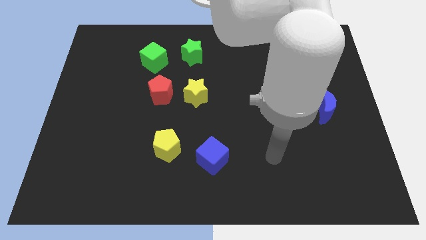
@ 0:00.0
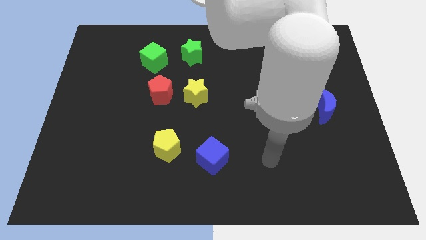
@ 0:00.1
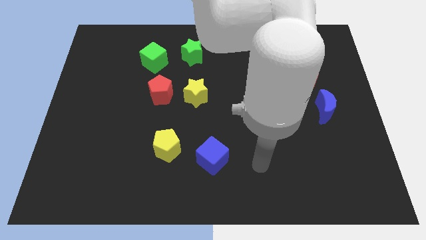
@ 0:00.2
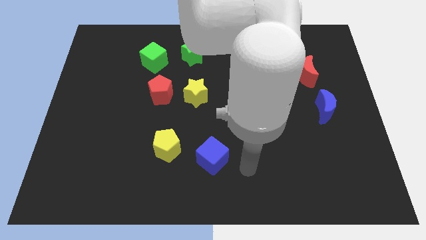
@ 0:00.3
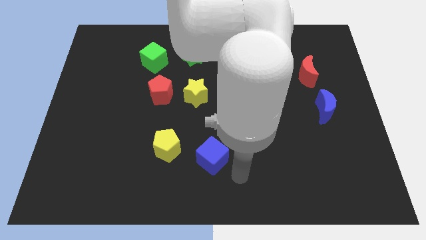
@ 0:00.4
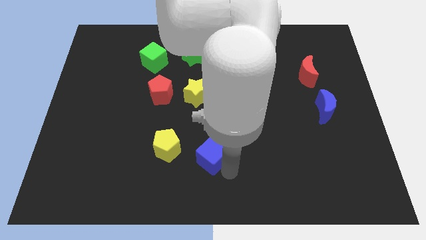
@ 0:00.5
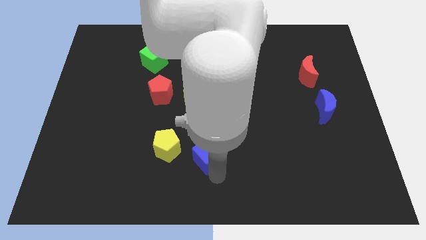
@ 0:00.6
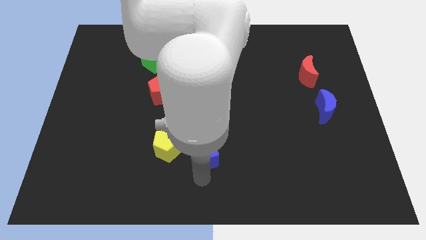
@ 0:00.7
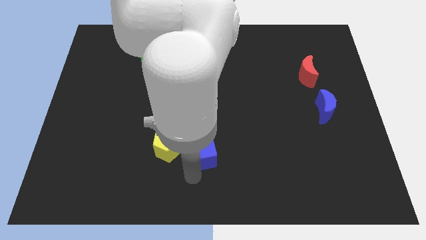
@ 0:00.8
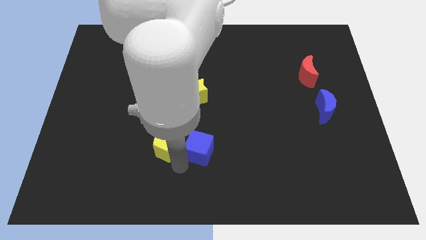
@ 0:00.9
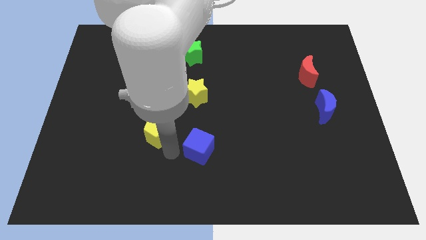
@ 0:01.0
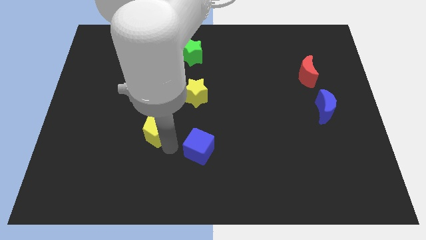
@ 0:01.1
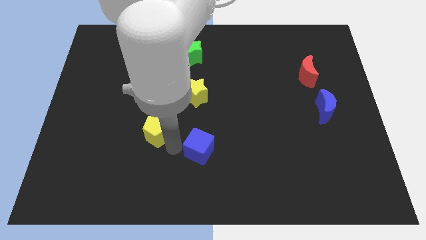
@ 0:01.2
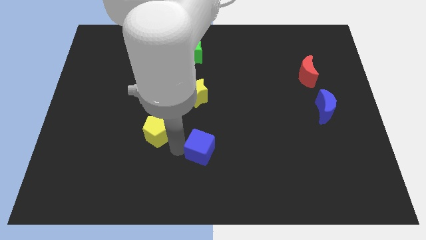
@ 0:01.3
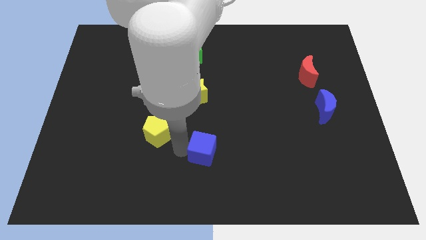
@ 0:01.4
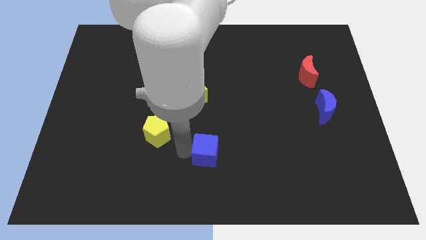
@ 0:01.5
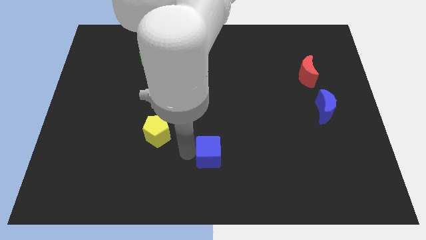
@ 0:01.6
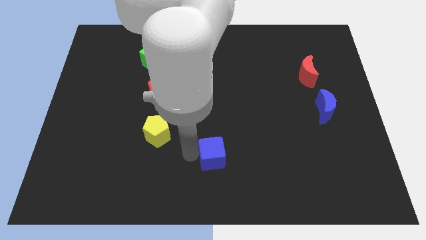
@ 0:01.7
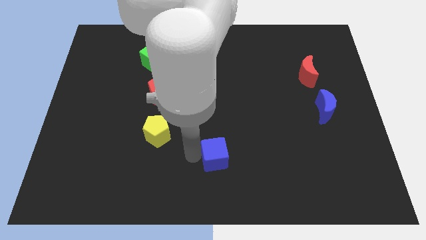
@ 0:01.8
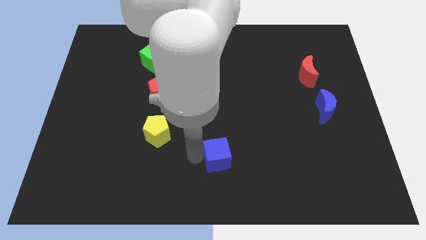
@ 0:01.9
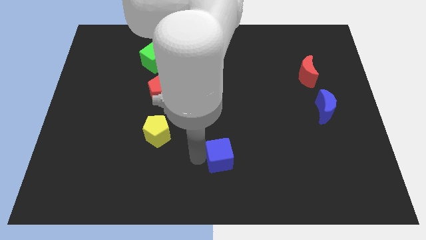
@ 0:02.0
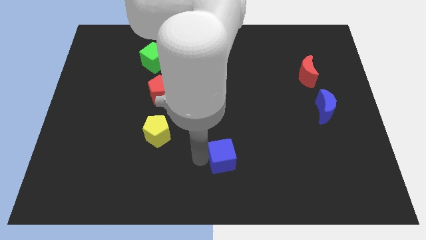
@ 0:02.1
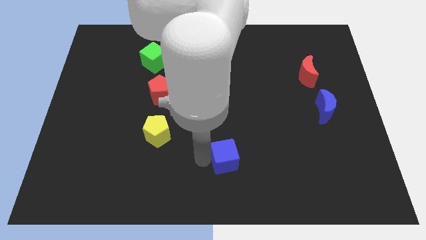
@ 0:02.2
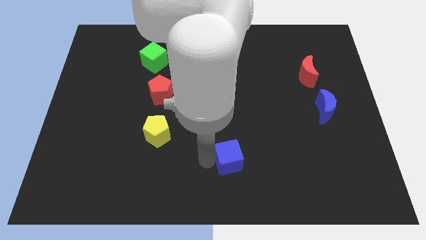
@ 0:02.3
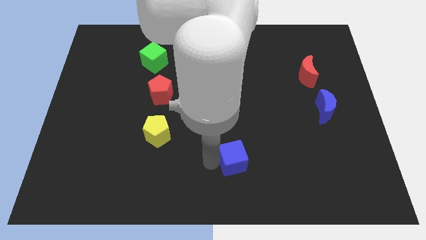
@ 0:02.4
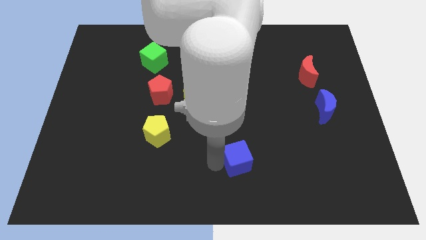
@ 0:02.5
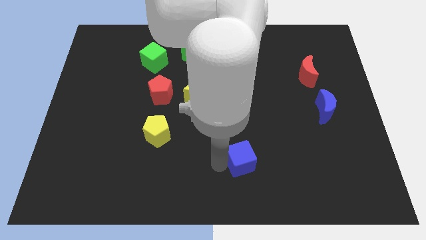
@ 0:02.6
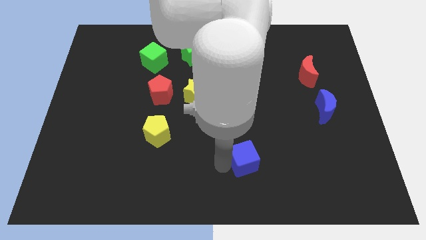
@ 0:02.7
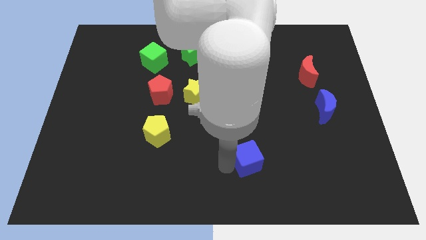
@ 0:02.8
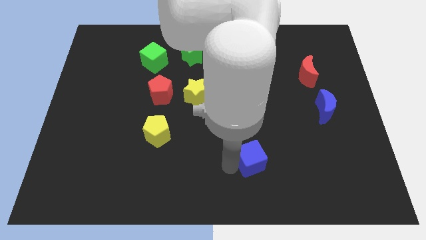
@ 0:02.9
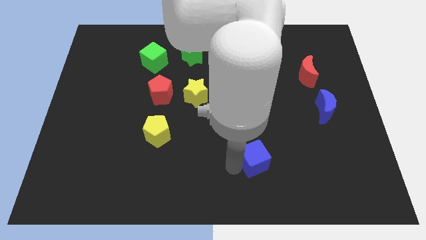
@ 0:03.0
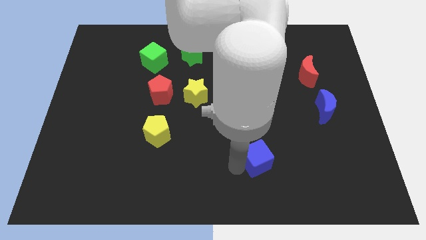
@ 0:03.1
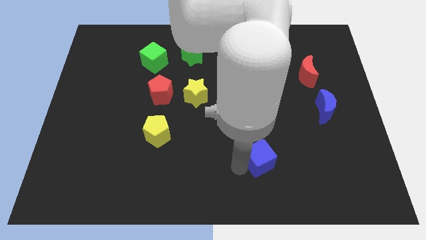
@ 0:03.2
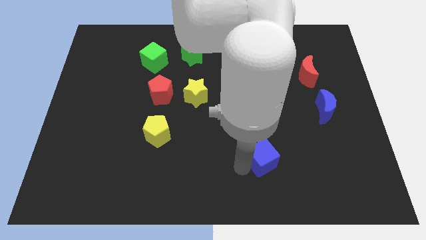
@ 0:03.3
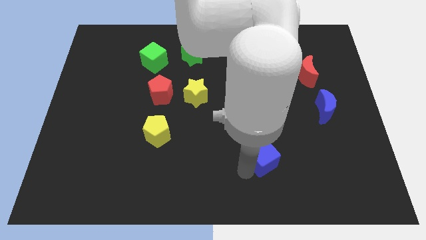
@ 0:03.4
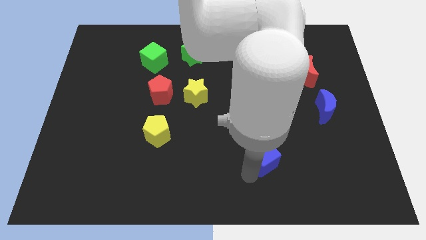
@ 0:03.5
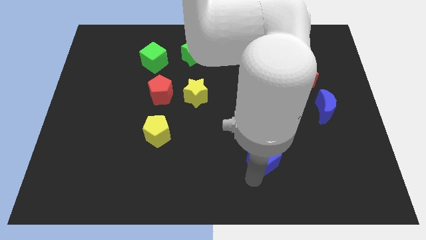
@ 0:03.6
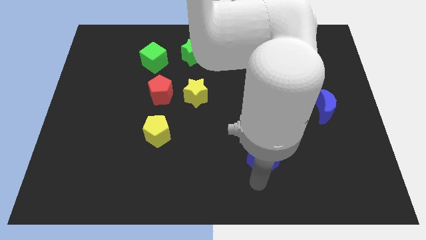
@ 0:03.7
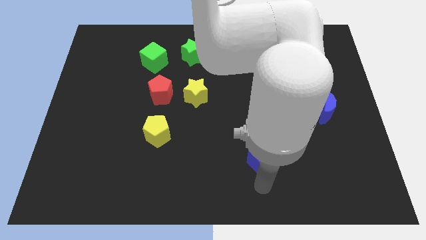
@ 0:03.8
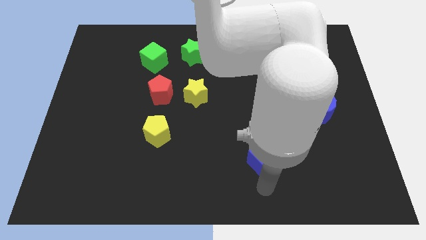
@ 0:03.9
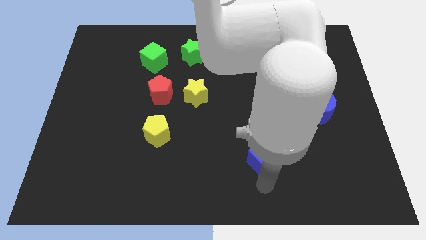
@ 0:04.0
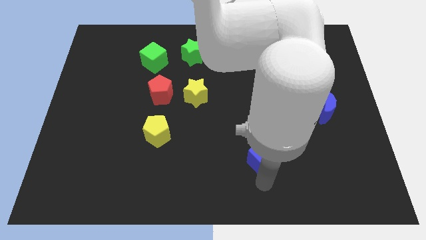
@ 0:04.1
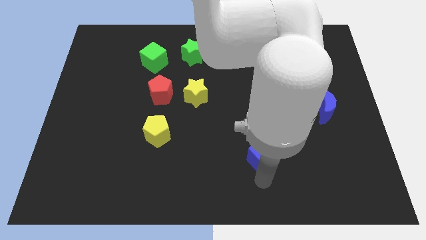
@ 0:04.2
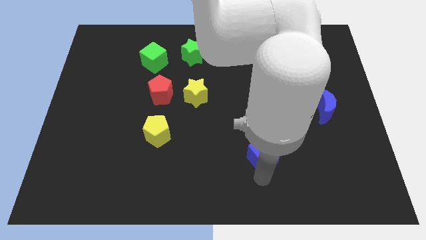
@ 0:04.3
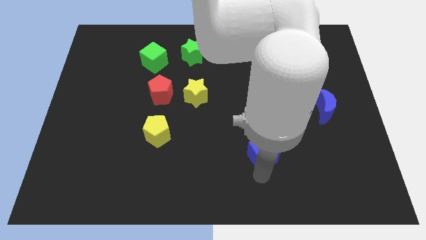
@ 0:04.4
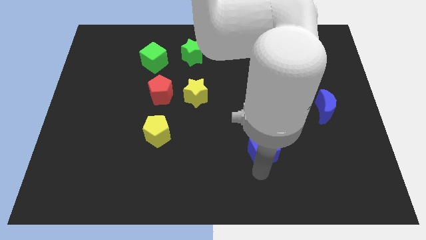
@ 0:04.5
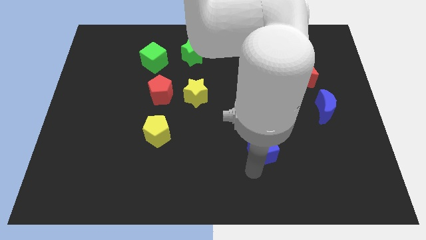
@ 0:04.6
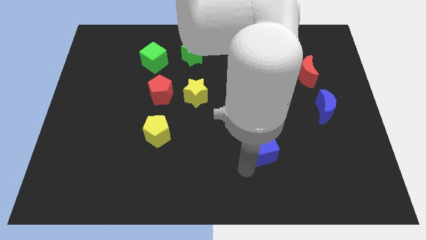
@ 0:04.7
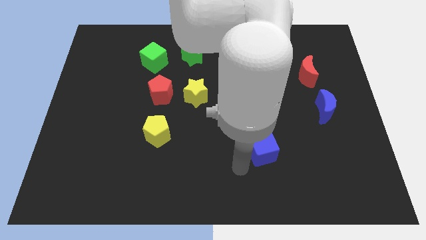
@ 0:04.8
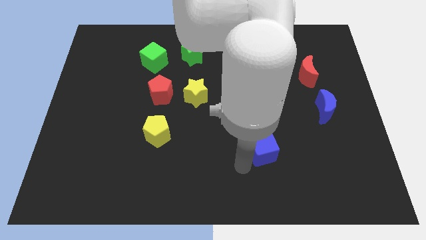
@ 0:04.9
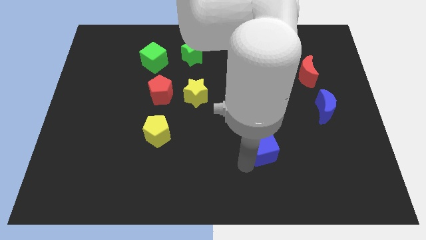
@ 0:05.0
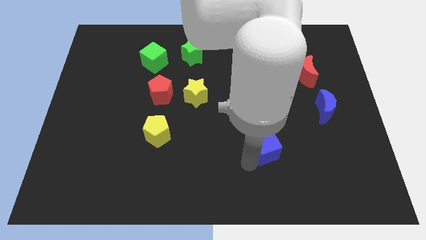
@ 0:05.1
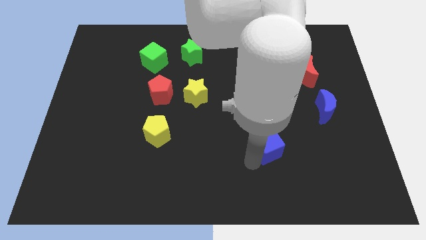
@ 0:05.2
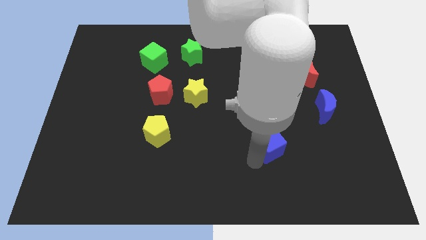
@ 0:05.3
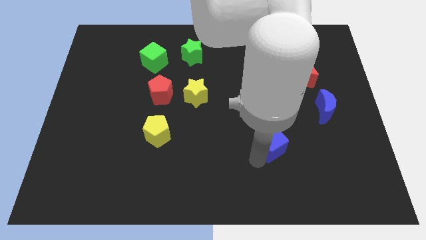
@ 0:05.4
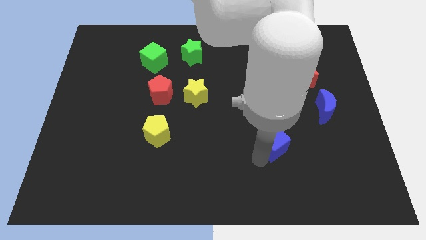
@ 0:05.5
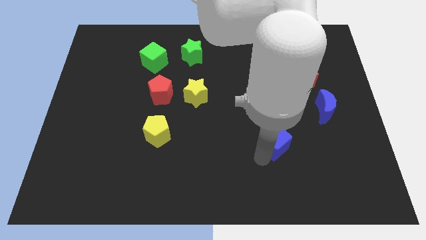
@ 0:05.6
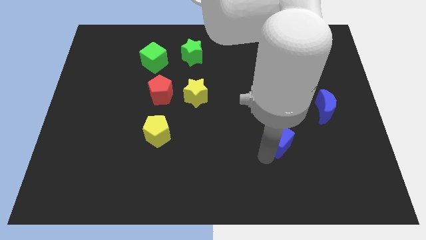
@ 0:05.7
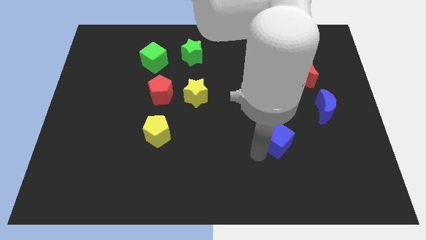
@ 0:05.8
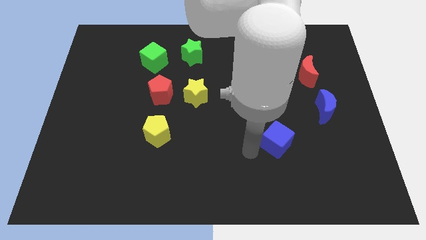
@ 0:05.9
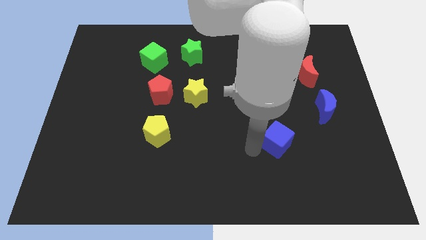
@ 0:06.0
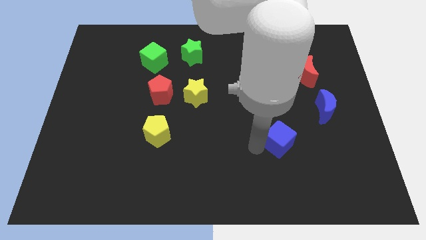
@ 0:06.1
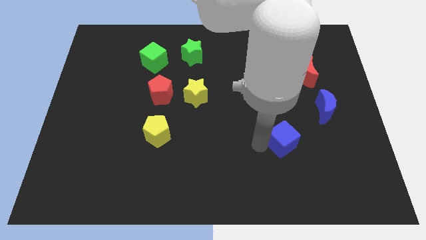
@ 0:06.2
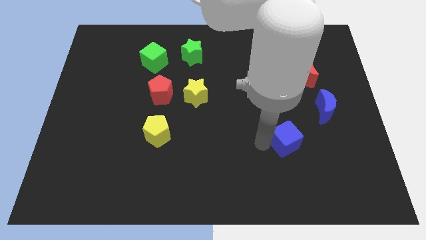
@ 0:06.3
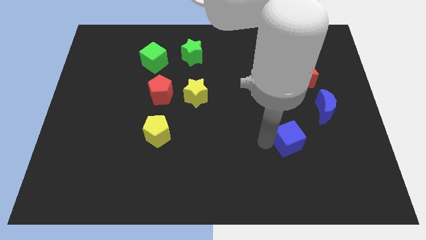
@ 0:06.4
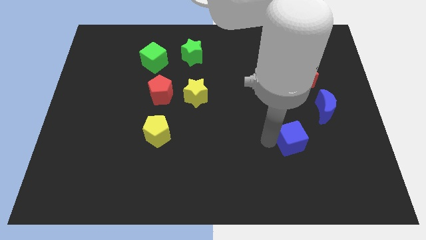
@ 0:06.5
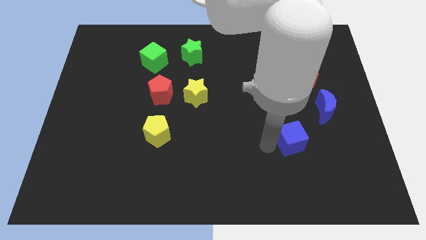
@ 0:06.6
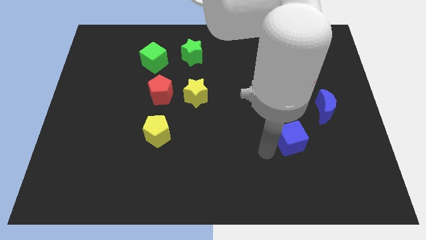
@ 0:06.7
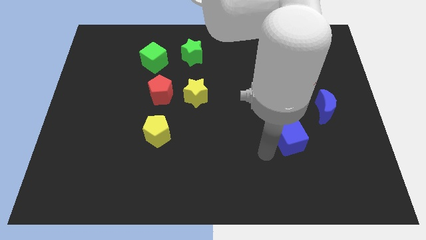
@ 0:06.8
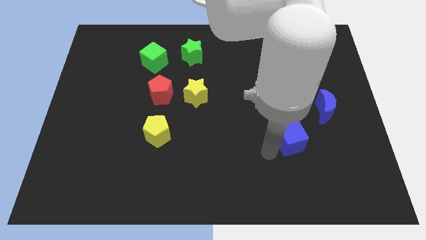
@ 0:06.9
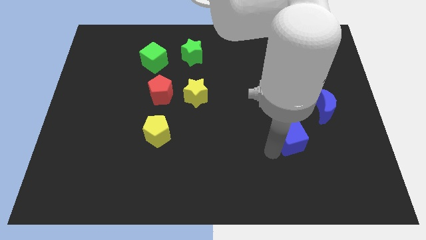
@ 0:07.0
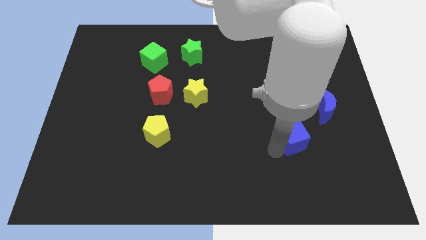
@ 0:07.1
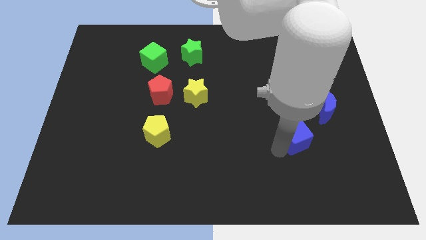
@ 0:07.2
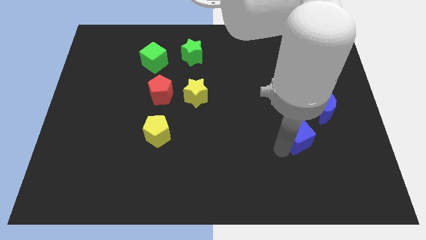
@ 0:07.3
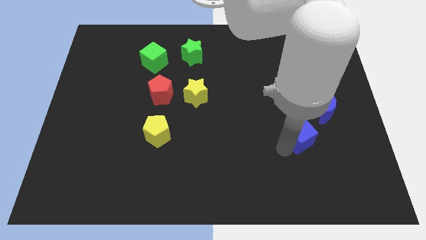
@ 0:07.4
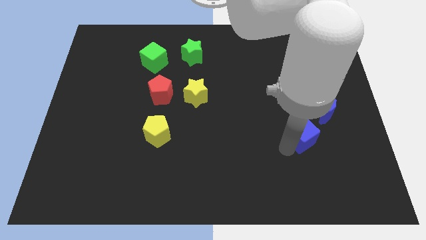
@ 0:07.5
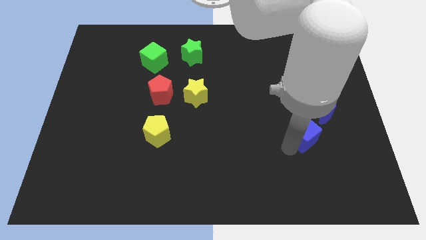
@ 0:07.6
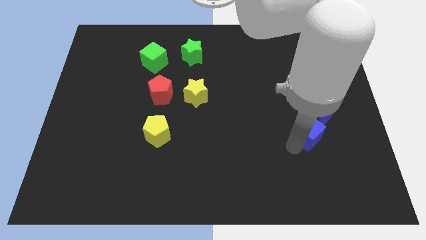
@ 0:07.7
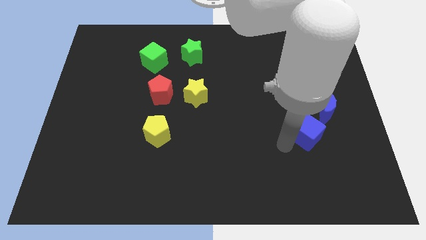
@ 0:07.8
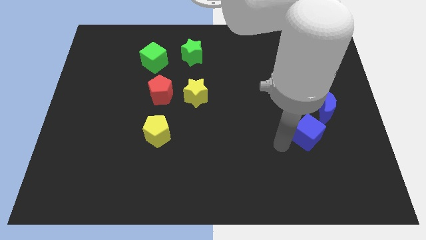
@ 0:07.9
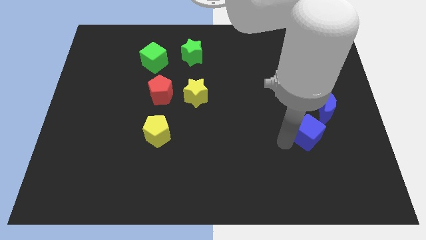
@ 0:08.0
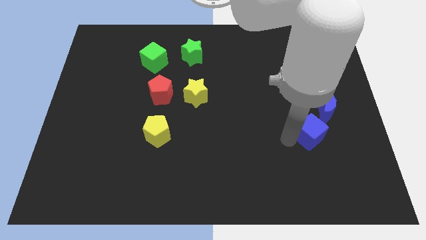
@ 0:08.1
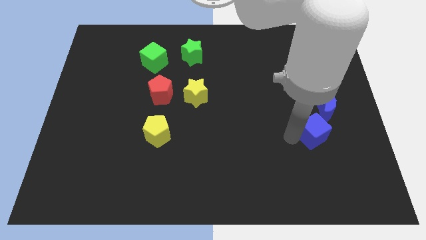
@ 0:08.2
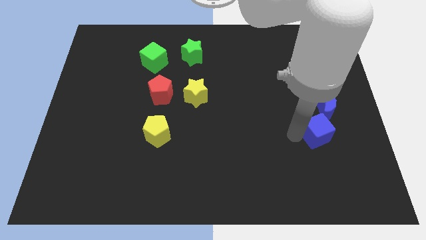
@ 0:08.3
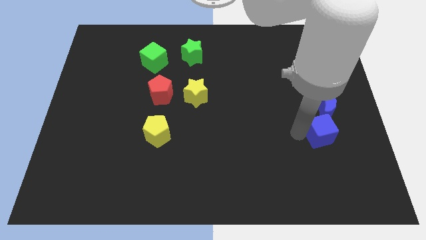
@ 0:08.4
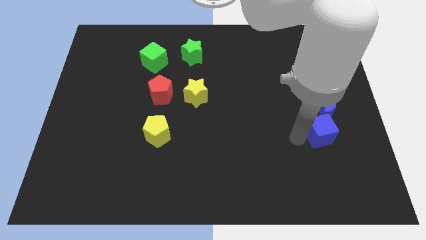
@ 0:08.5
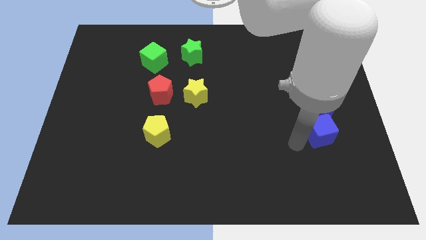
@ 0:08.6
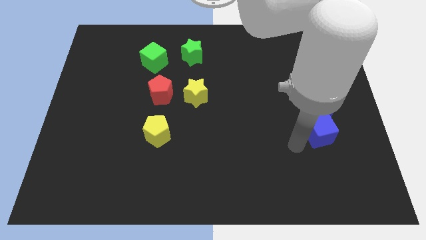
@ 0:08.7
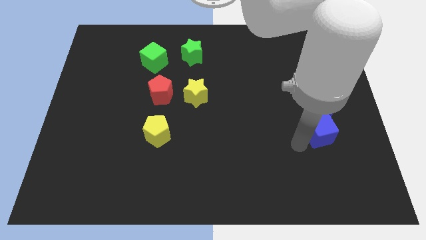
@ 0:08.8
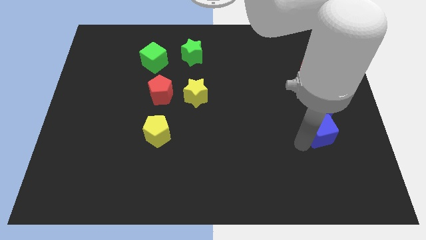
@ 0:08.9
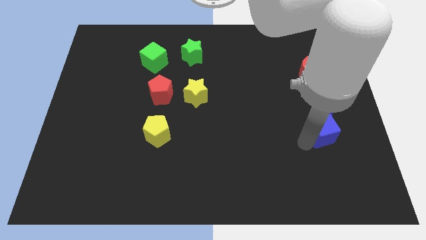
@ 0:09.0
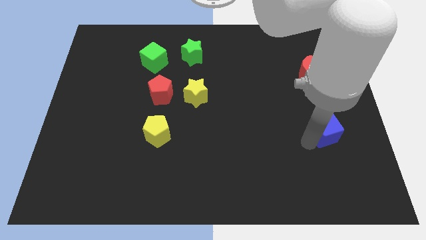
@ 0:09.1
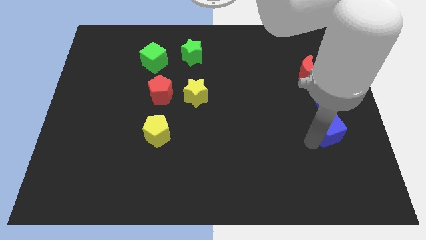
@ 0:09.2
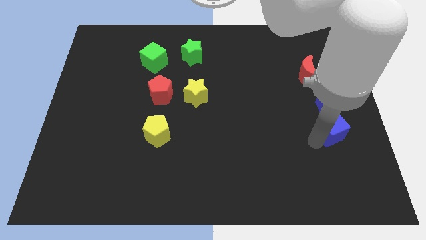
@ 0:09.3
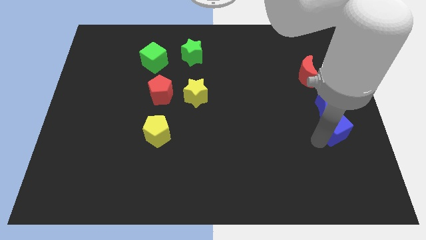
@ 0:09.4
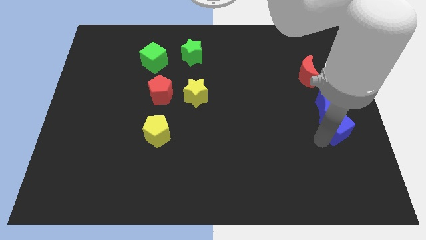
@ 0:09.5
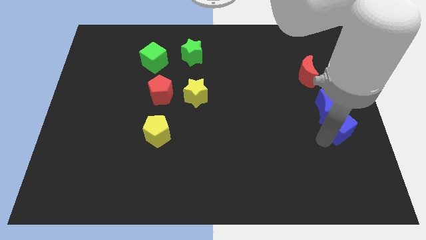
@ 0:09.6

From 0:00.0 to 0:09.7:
slide the blue cube to the center right
